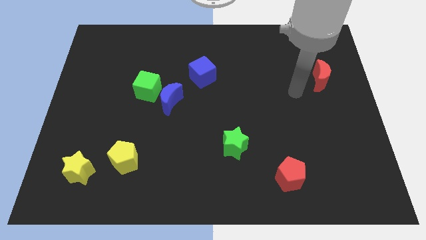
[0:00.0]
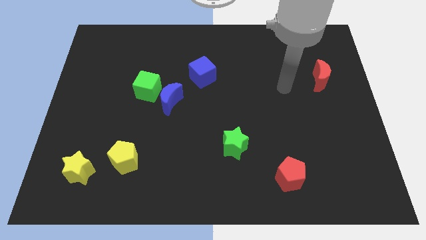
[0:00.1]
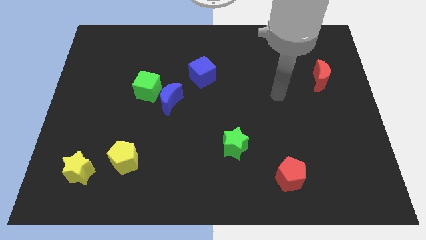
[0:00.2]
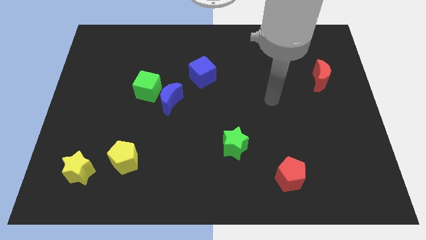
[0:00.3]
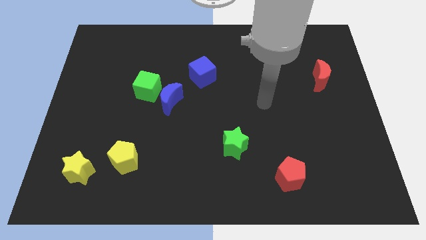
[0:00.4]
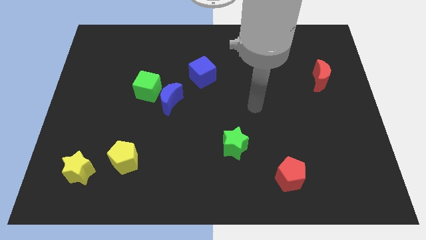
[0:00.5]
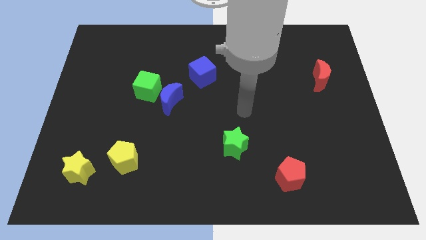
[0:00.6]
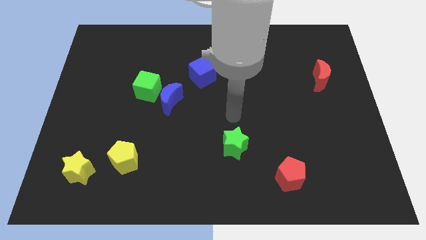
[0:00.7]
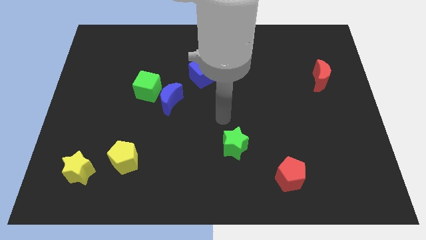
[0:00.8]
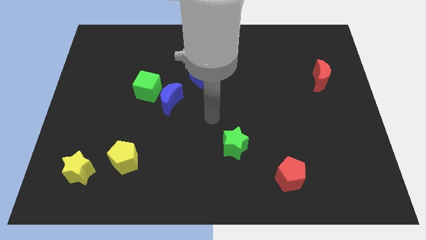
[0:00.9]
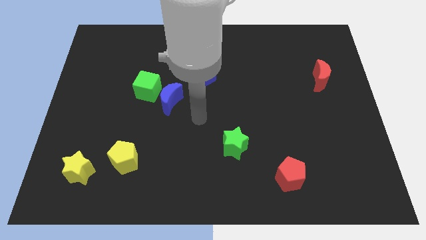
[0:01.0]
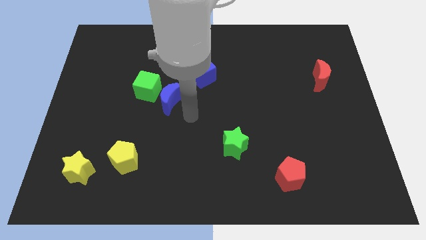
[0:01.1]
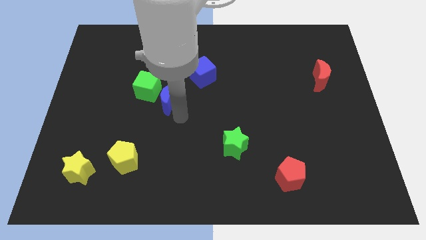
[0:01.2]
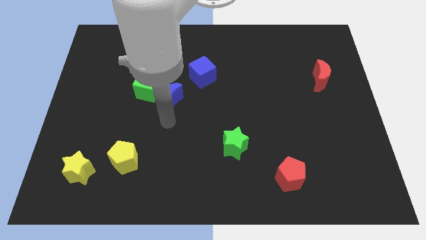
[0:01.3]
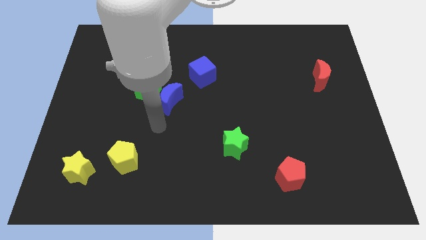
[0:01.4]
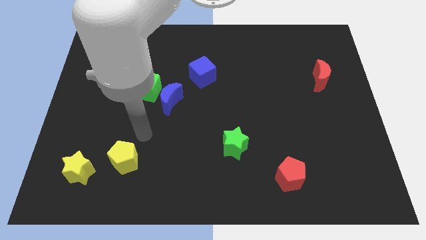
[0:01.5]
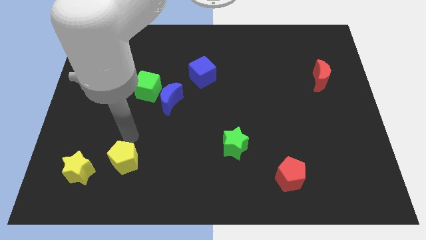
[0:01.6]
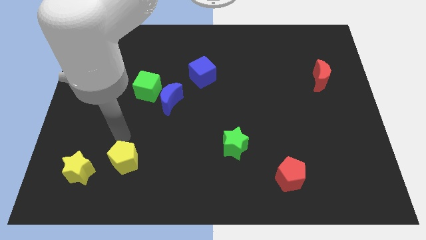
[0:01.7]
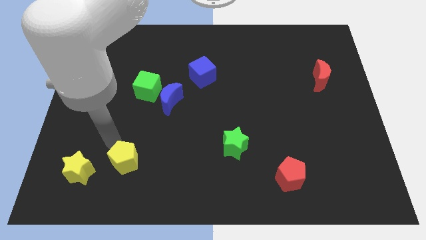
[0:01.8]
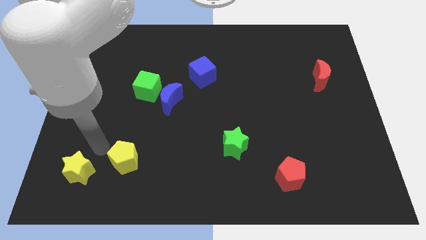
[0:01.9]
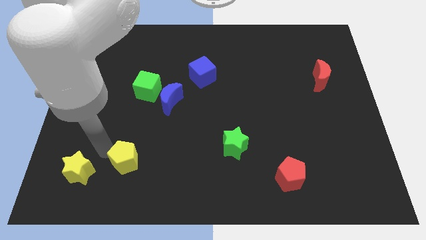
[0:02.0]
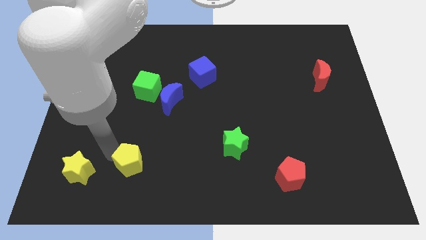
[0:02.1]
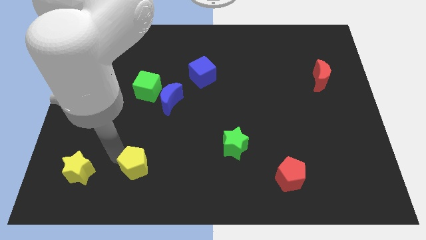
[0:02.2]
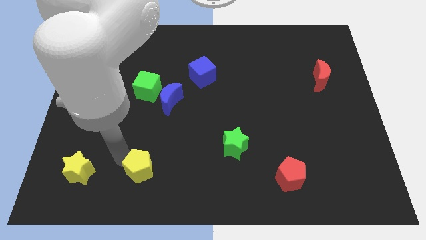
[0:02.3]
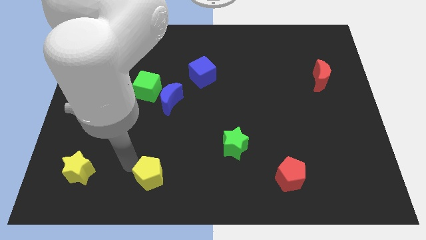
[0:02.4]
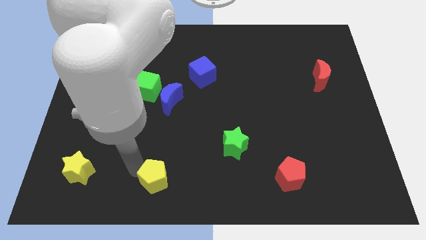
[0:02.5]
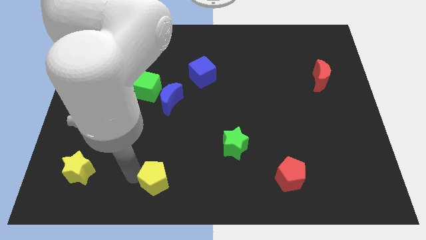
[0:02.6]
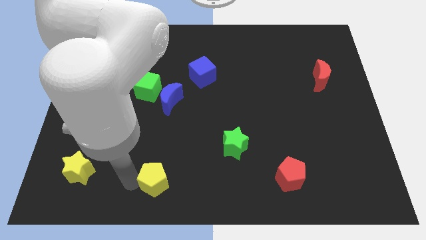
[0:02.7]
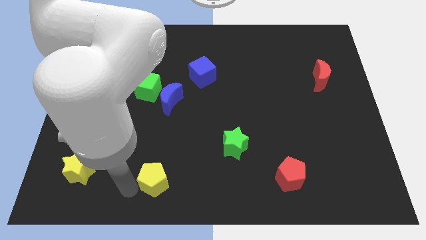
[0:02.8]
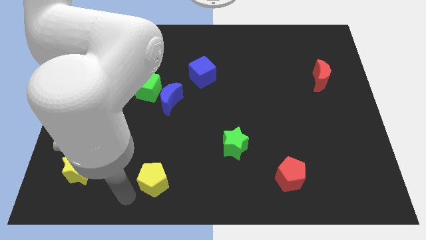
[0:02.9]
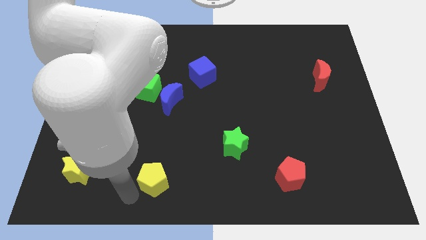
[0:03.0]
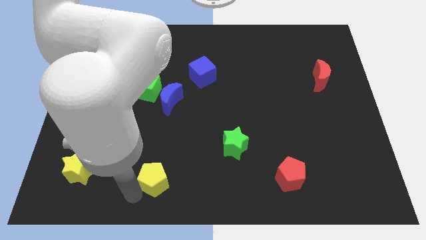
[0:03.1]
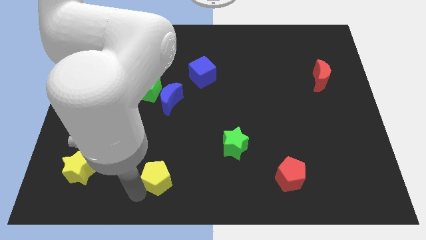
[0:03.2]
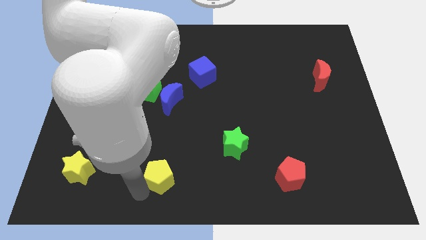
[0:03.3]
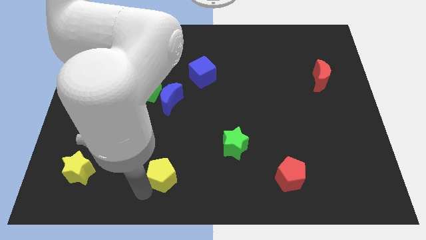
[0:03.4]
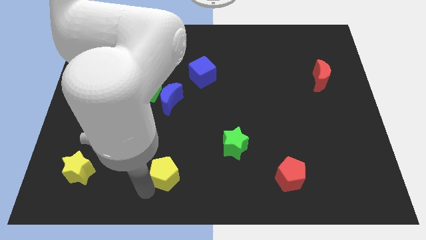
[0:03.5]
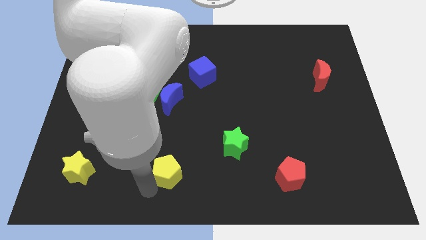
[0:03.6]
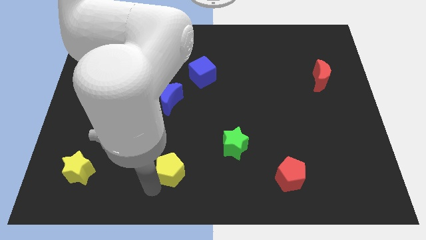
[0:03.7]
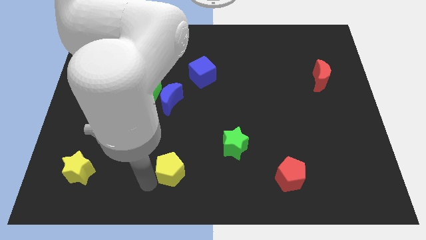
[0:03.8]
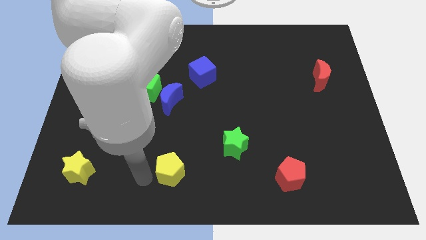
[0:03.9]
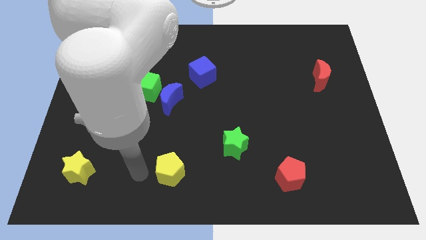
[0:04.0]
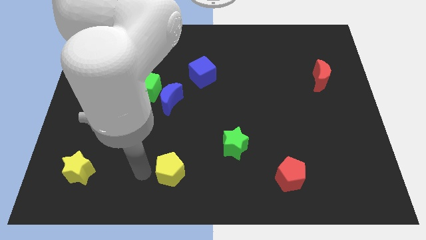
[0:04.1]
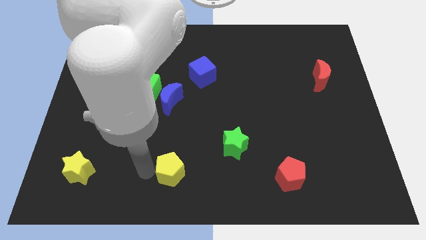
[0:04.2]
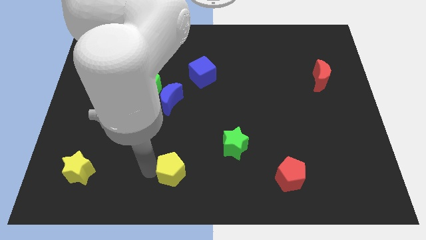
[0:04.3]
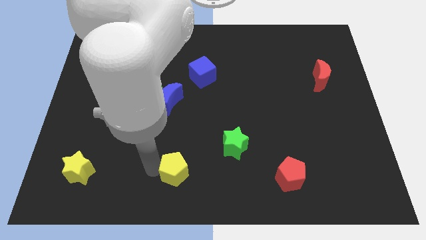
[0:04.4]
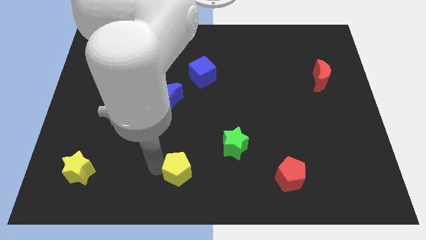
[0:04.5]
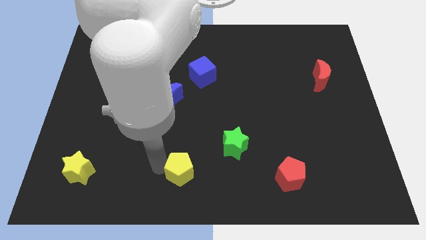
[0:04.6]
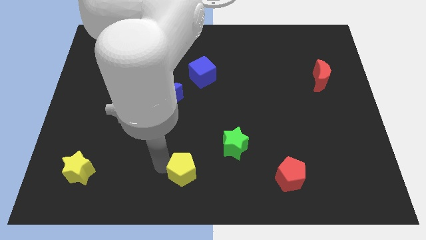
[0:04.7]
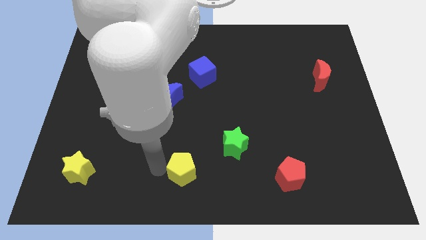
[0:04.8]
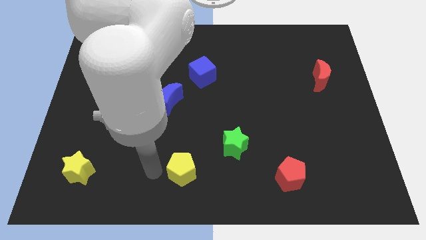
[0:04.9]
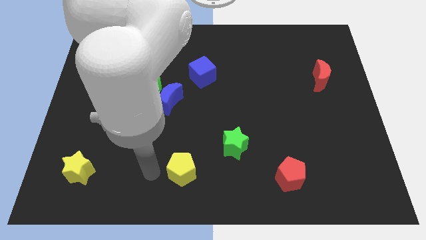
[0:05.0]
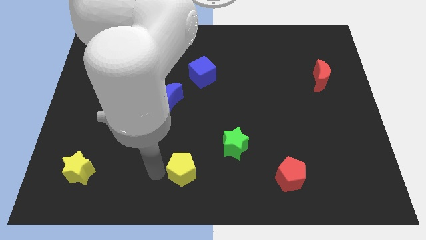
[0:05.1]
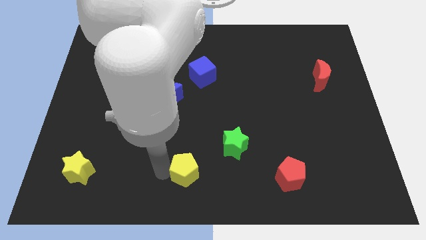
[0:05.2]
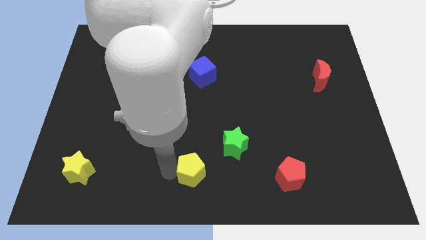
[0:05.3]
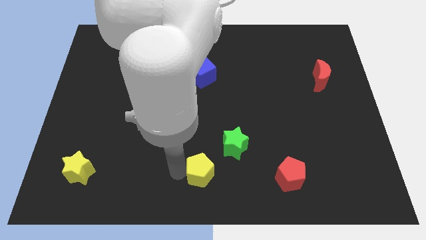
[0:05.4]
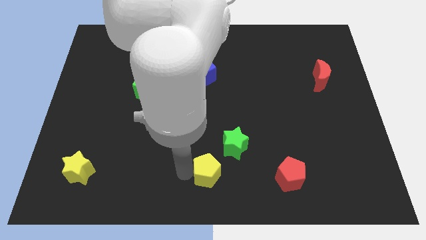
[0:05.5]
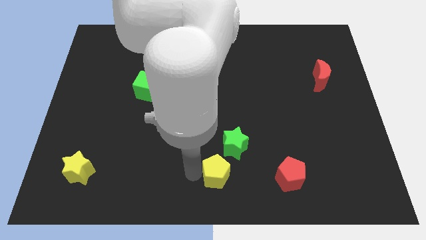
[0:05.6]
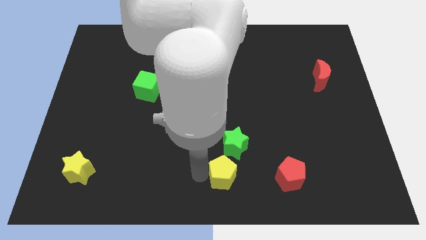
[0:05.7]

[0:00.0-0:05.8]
push the yellow pentagon right

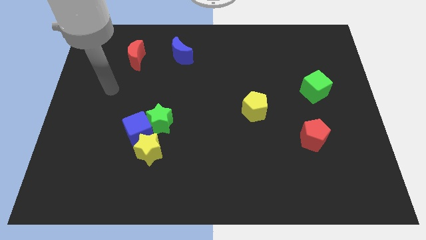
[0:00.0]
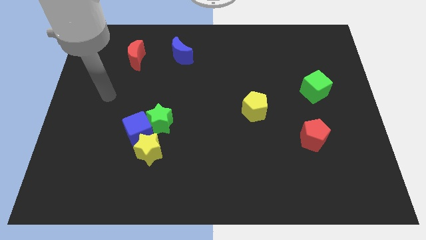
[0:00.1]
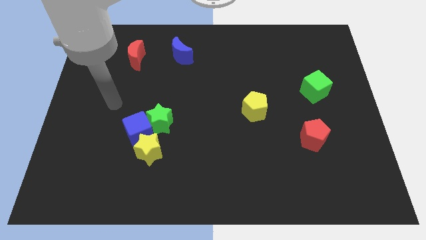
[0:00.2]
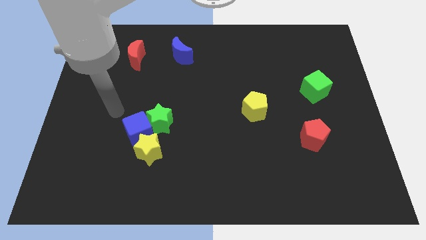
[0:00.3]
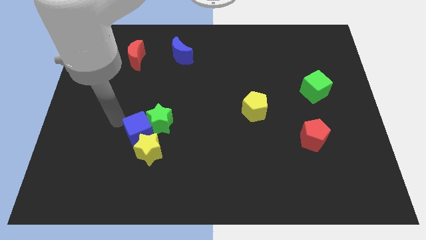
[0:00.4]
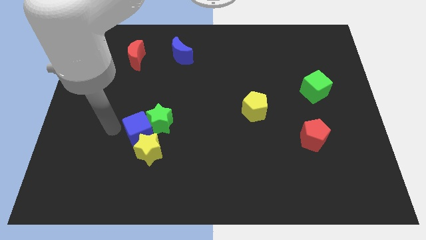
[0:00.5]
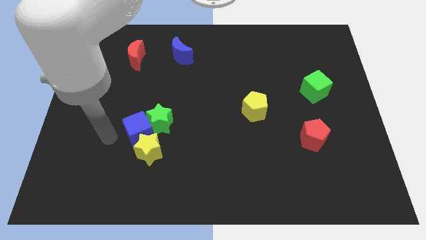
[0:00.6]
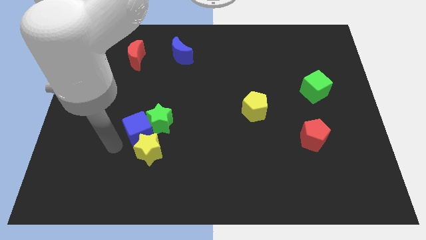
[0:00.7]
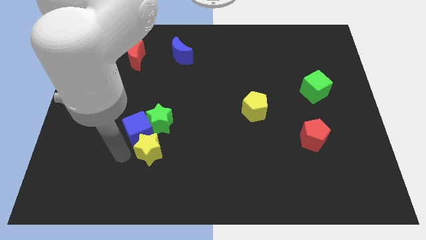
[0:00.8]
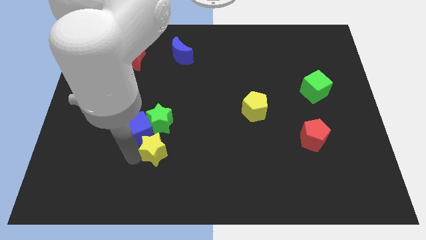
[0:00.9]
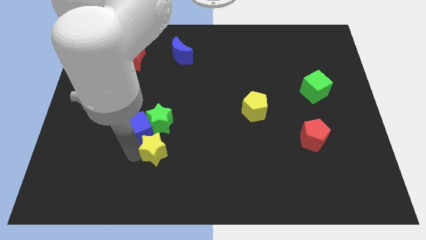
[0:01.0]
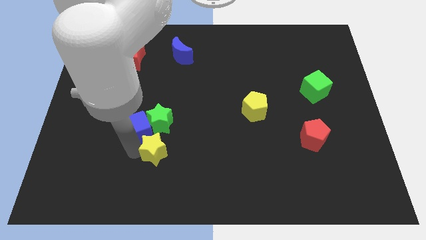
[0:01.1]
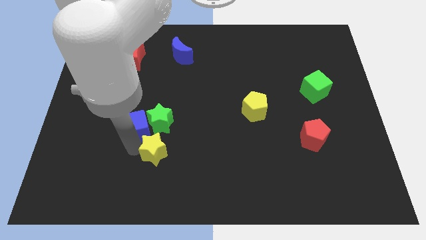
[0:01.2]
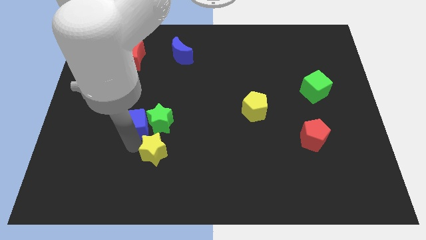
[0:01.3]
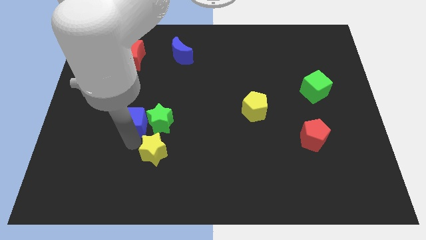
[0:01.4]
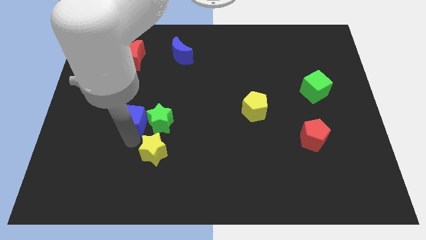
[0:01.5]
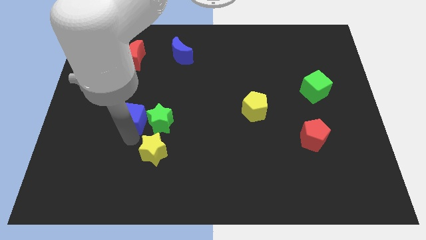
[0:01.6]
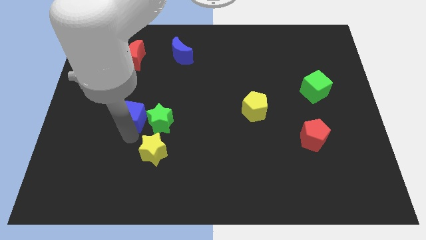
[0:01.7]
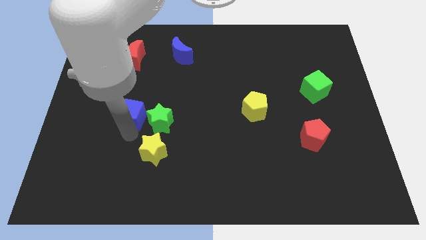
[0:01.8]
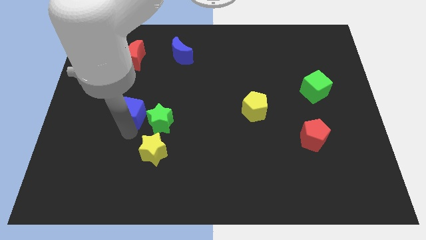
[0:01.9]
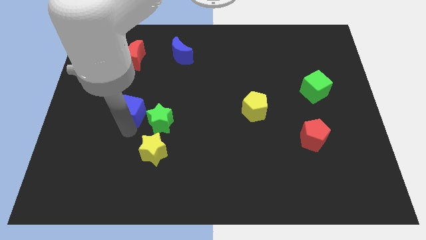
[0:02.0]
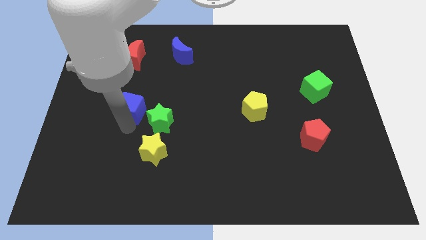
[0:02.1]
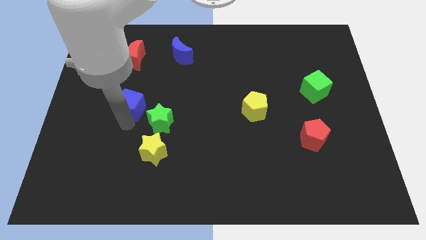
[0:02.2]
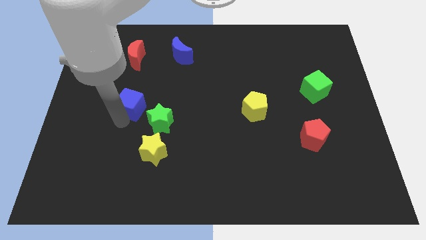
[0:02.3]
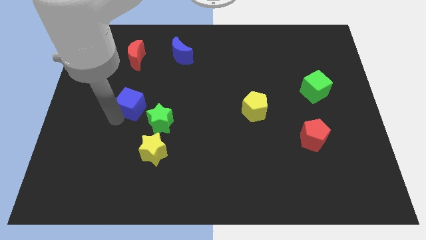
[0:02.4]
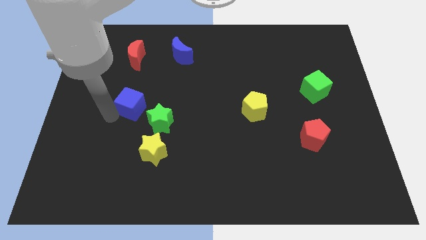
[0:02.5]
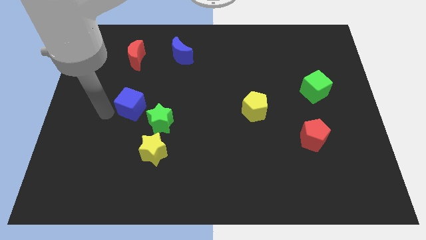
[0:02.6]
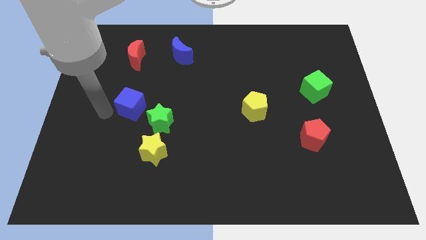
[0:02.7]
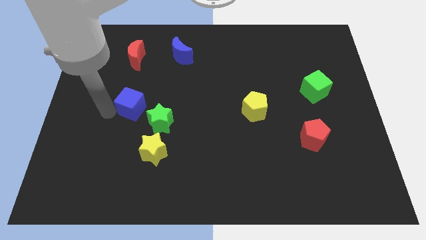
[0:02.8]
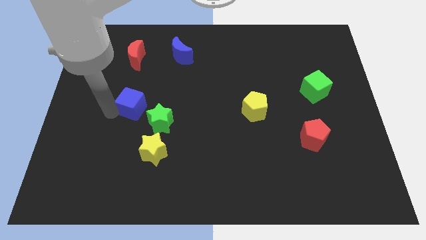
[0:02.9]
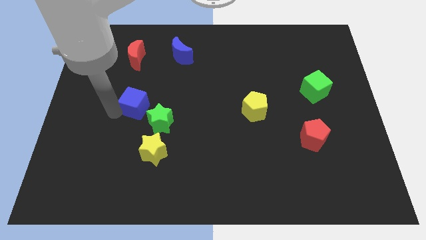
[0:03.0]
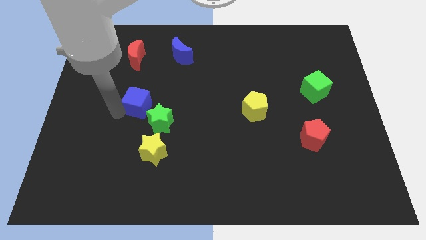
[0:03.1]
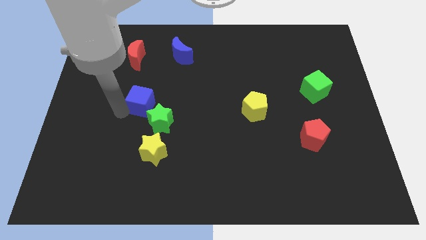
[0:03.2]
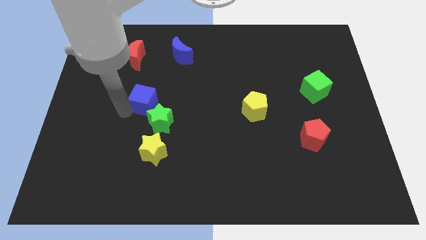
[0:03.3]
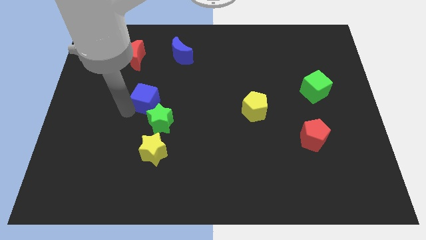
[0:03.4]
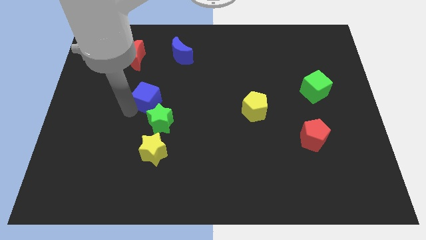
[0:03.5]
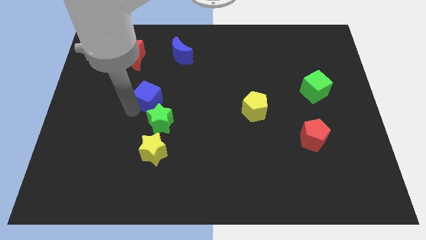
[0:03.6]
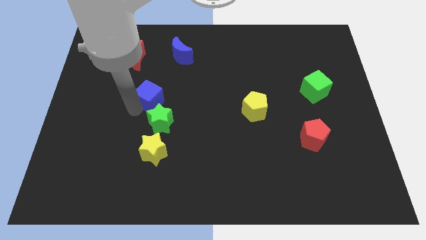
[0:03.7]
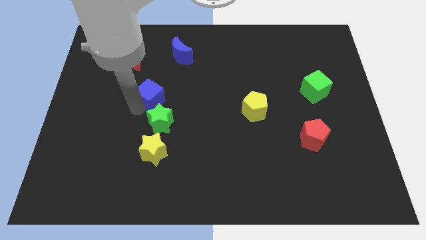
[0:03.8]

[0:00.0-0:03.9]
push the blue cube upwards and then to the right a bit
